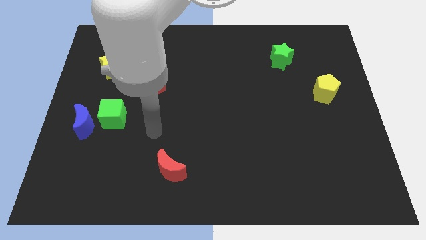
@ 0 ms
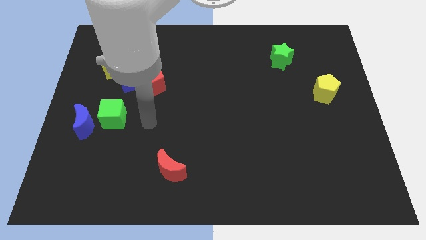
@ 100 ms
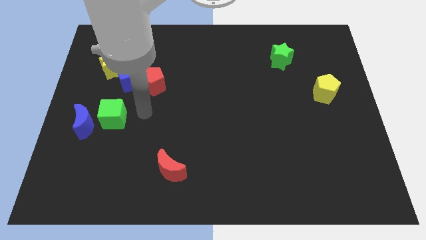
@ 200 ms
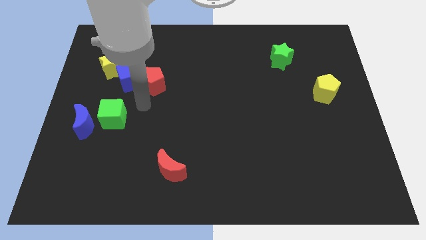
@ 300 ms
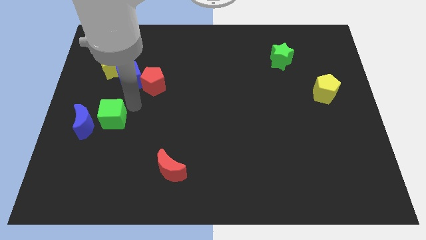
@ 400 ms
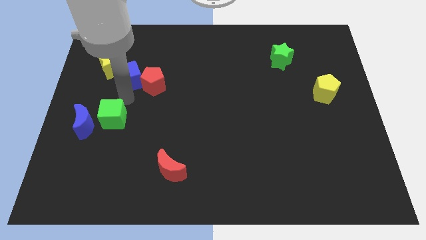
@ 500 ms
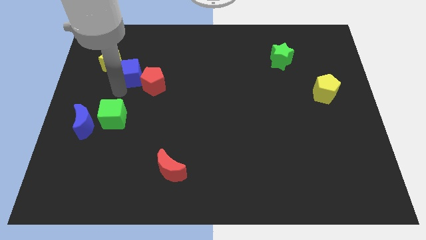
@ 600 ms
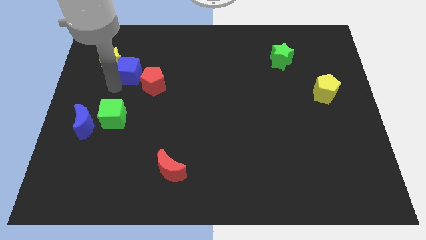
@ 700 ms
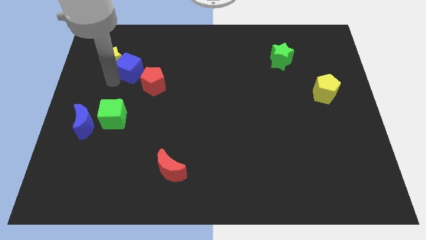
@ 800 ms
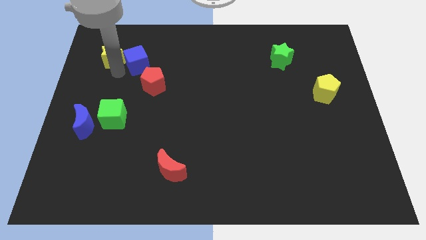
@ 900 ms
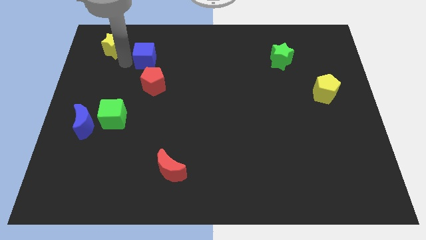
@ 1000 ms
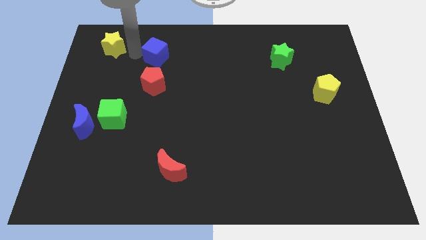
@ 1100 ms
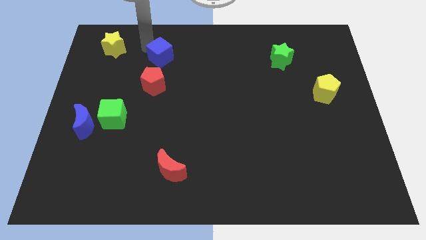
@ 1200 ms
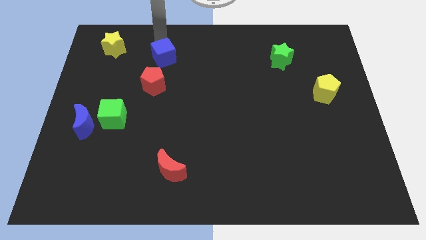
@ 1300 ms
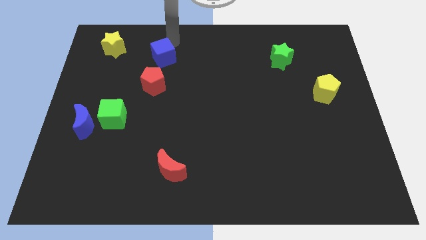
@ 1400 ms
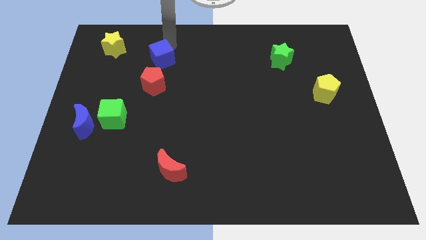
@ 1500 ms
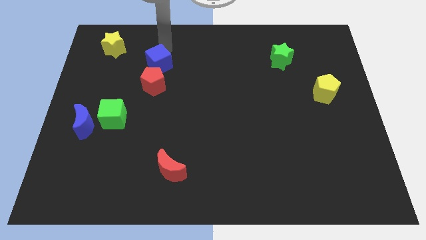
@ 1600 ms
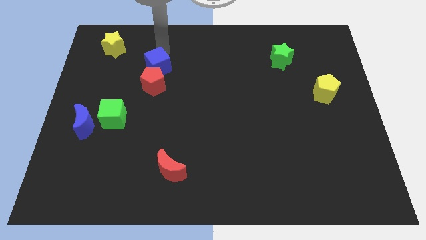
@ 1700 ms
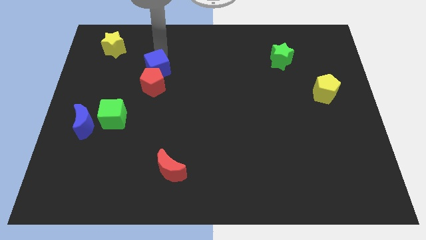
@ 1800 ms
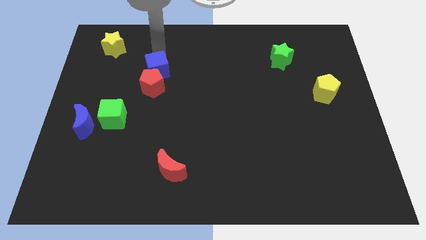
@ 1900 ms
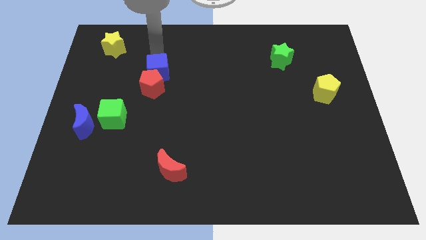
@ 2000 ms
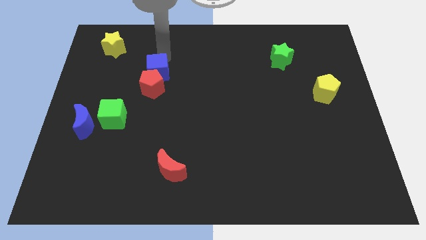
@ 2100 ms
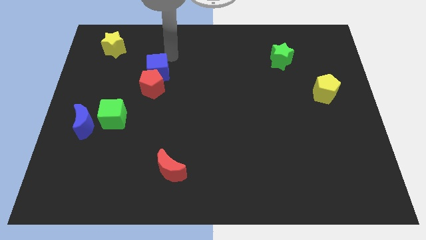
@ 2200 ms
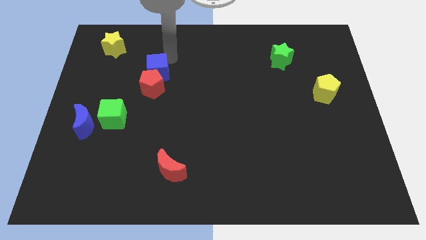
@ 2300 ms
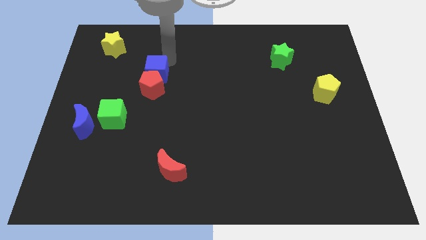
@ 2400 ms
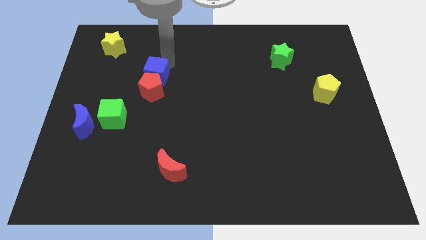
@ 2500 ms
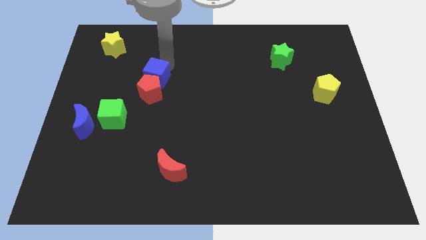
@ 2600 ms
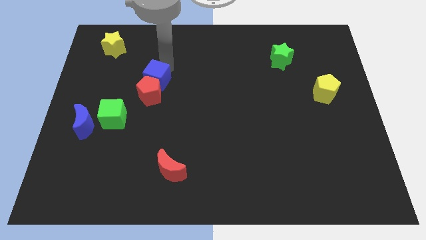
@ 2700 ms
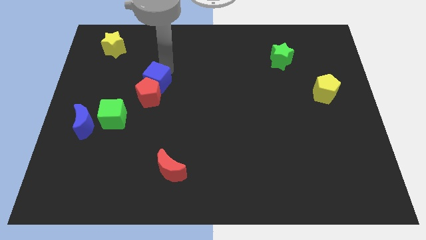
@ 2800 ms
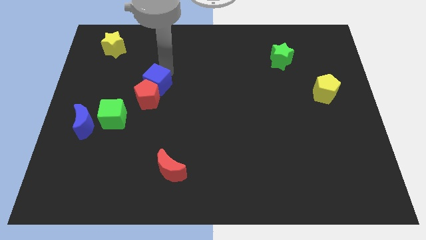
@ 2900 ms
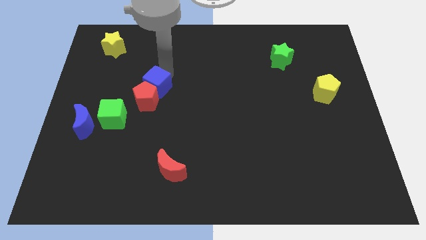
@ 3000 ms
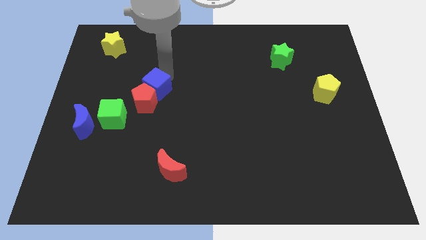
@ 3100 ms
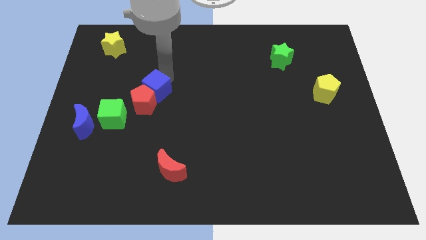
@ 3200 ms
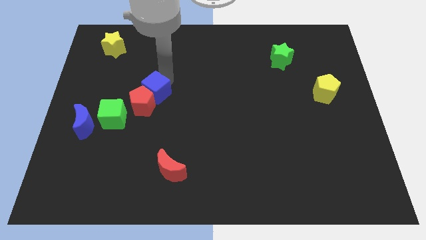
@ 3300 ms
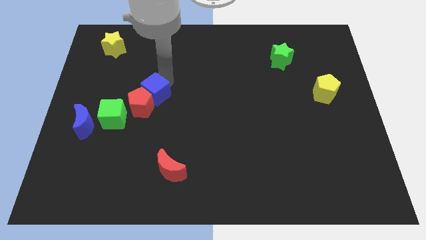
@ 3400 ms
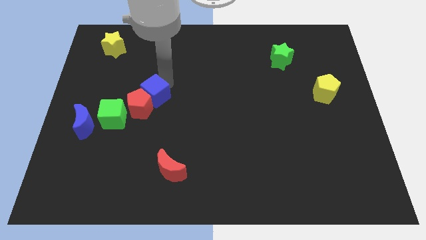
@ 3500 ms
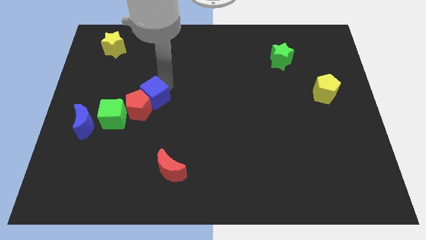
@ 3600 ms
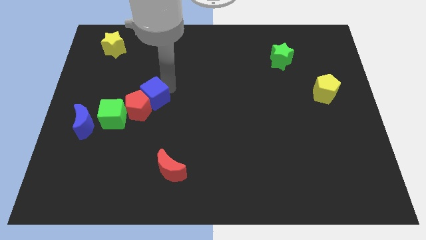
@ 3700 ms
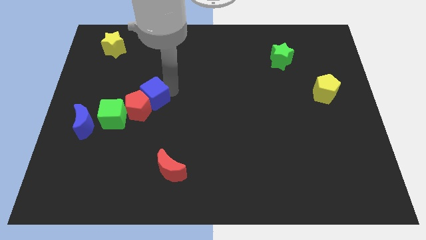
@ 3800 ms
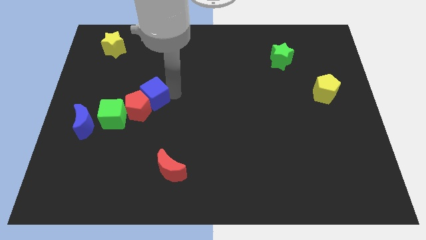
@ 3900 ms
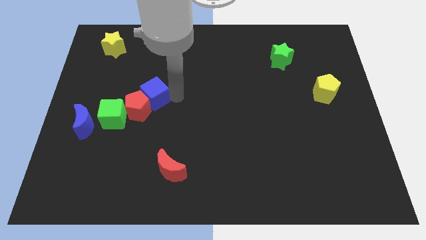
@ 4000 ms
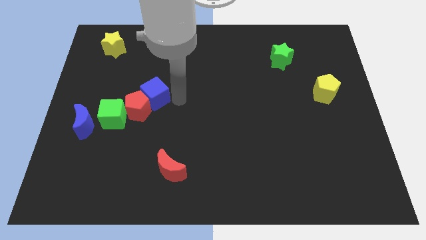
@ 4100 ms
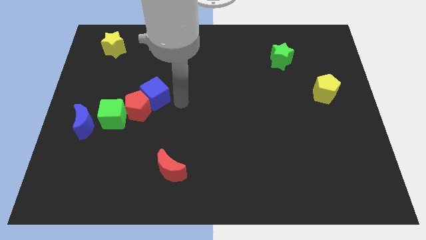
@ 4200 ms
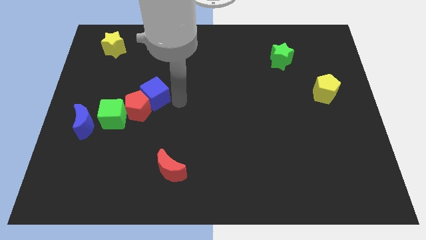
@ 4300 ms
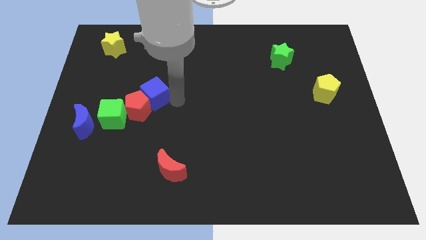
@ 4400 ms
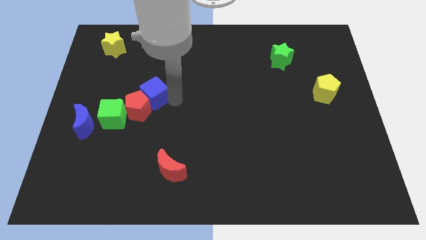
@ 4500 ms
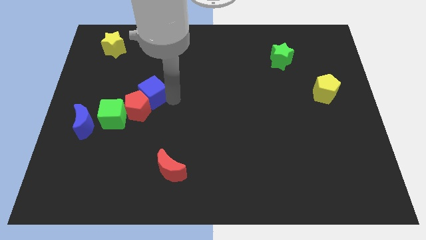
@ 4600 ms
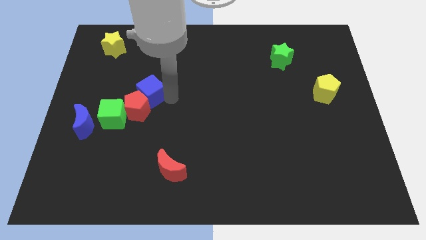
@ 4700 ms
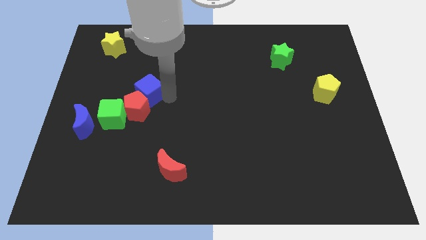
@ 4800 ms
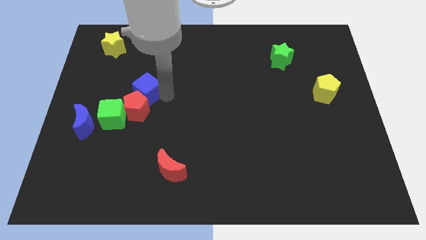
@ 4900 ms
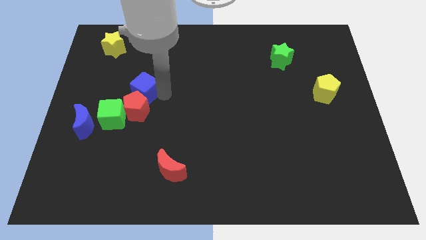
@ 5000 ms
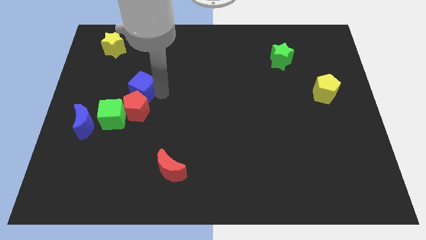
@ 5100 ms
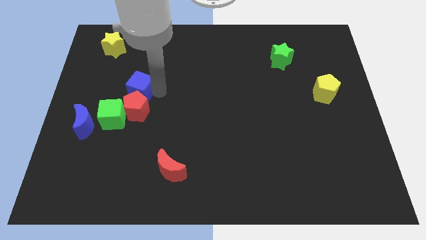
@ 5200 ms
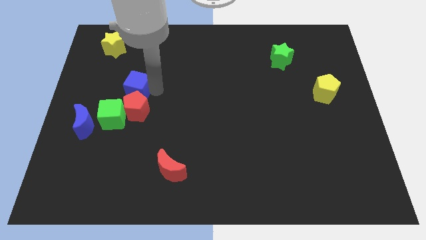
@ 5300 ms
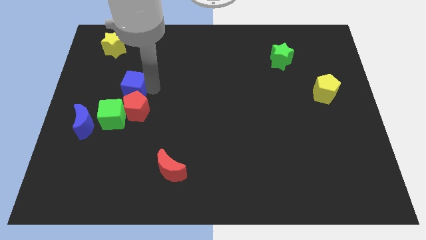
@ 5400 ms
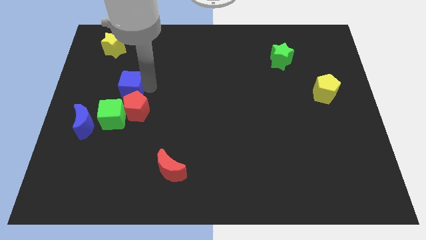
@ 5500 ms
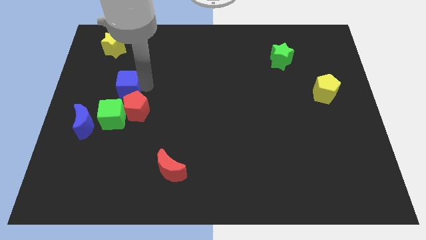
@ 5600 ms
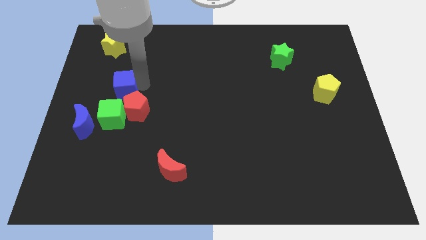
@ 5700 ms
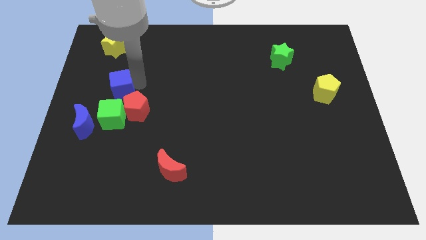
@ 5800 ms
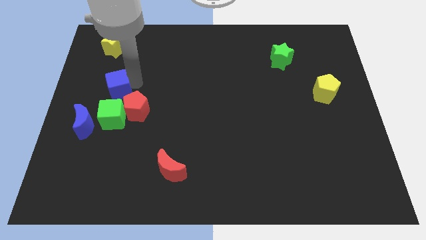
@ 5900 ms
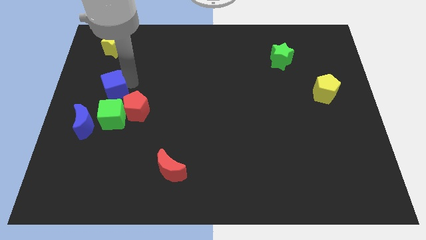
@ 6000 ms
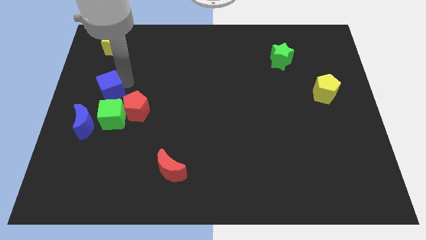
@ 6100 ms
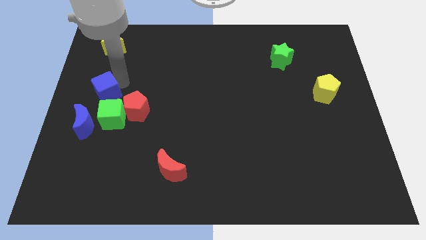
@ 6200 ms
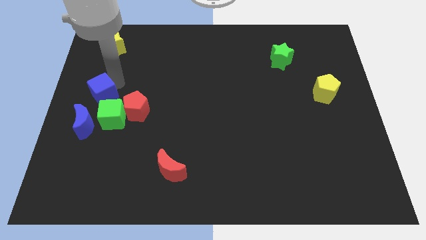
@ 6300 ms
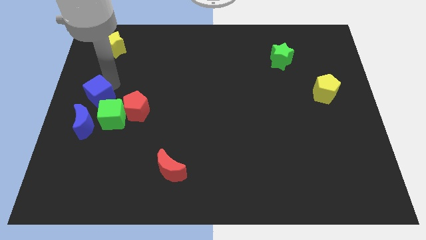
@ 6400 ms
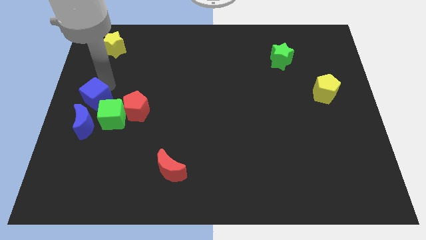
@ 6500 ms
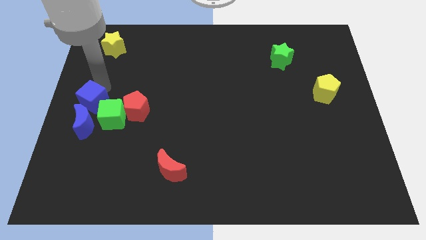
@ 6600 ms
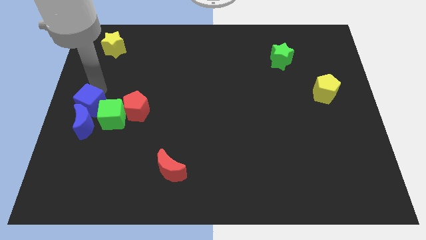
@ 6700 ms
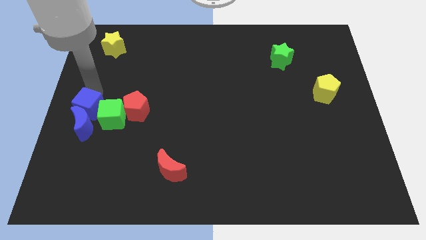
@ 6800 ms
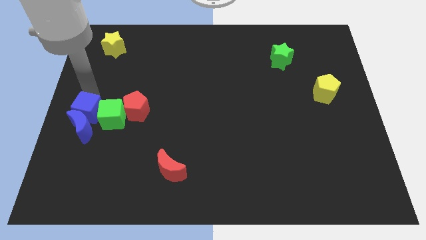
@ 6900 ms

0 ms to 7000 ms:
move the blue cube down a little bit

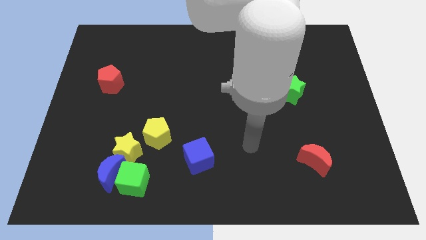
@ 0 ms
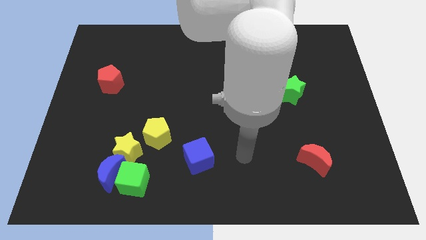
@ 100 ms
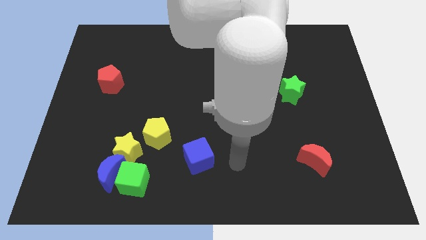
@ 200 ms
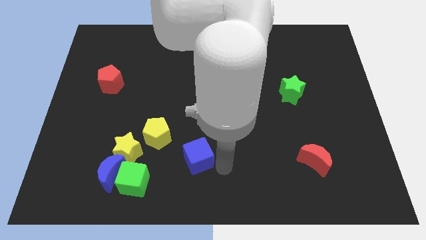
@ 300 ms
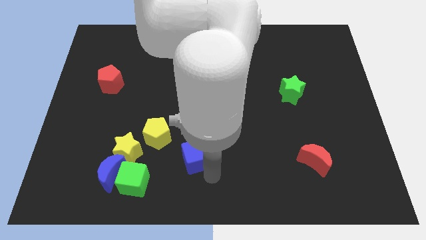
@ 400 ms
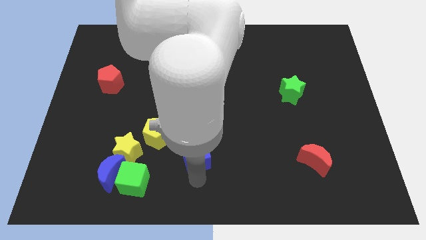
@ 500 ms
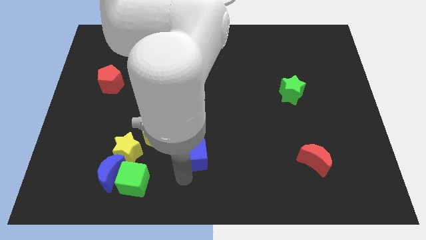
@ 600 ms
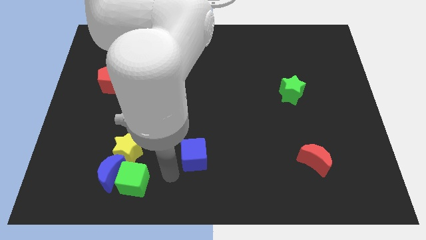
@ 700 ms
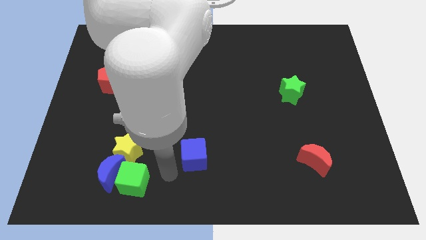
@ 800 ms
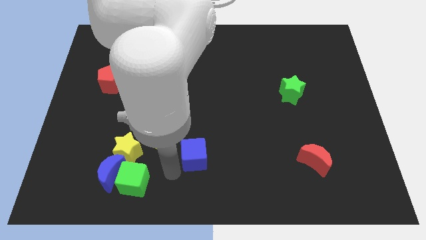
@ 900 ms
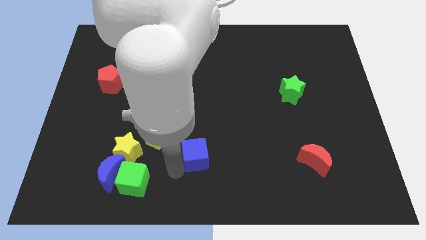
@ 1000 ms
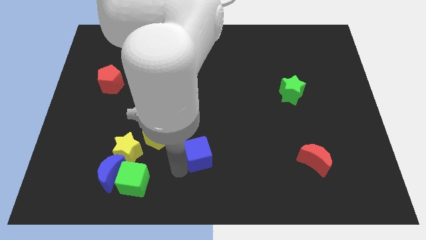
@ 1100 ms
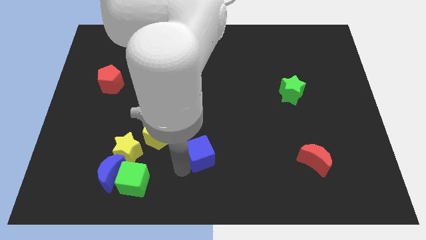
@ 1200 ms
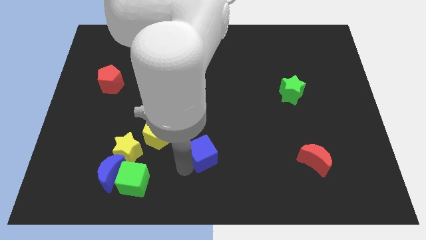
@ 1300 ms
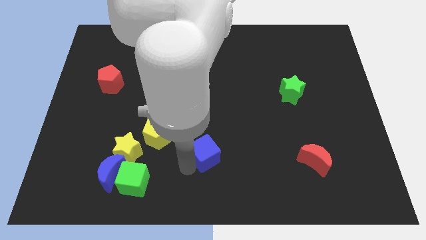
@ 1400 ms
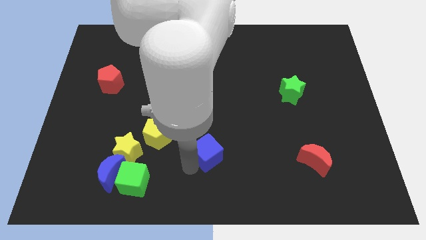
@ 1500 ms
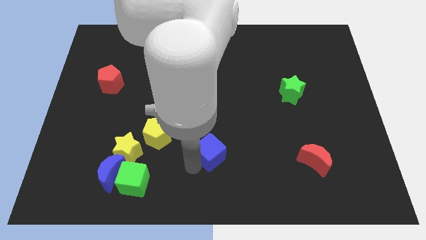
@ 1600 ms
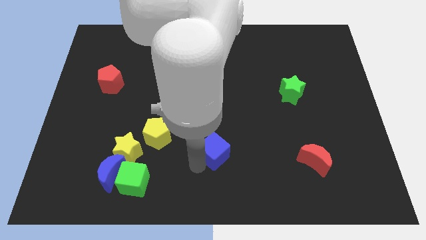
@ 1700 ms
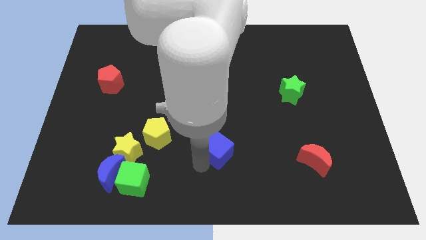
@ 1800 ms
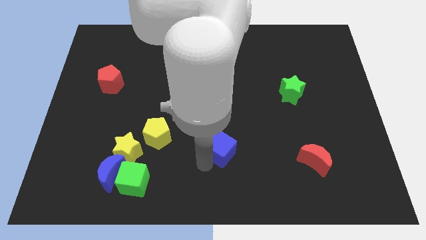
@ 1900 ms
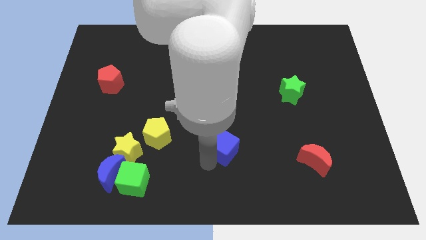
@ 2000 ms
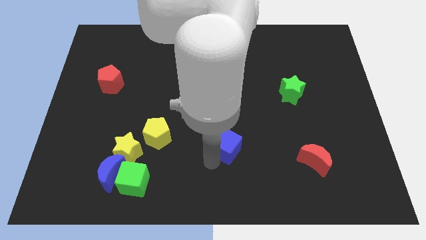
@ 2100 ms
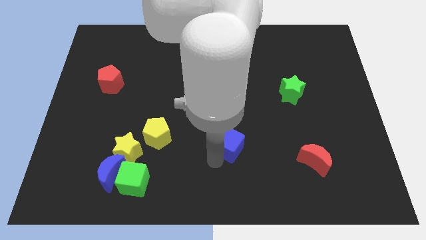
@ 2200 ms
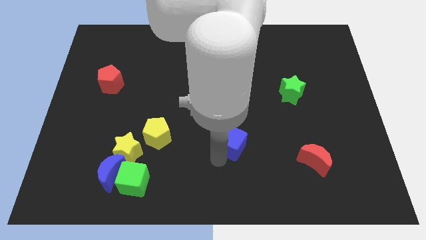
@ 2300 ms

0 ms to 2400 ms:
move the blue cube upwards and then right somewhat
